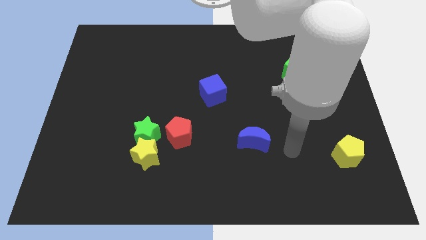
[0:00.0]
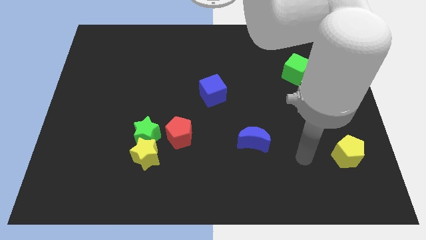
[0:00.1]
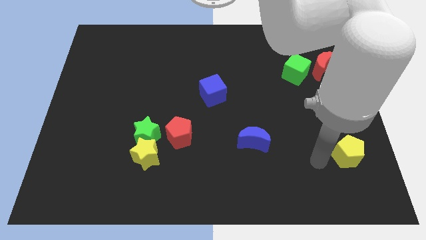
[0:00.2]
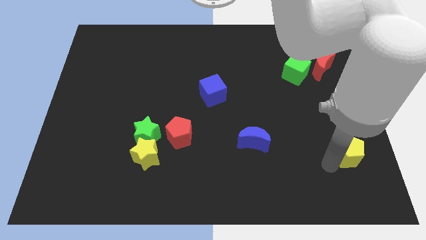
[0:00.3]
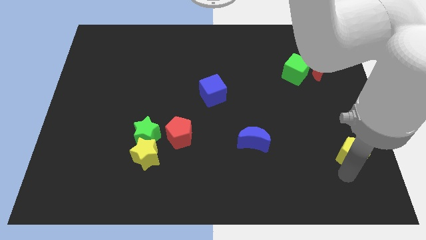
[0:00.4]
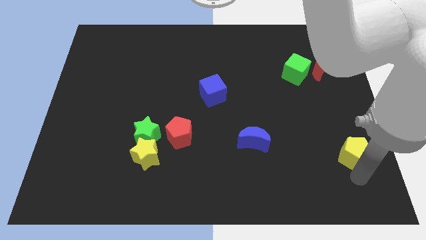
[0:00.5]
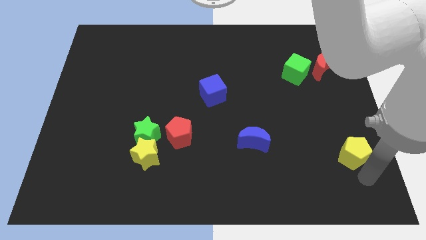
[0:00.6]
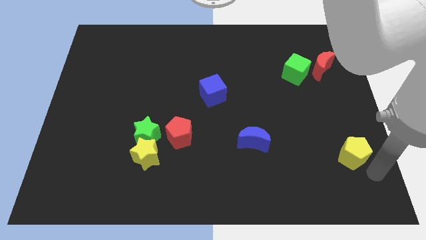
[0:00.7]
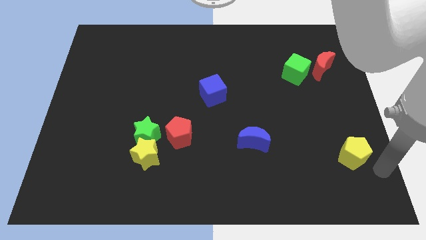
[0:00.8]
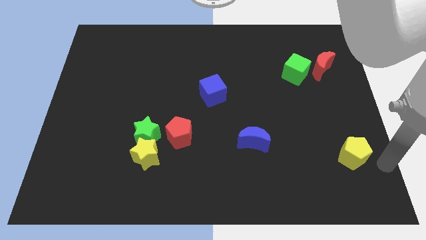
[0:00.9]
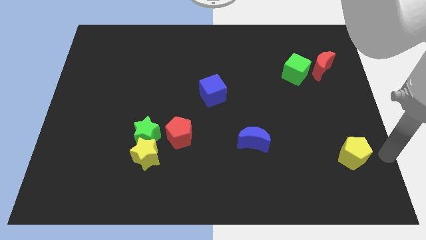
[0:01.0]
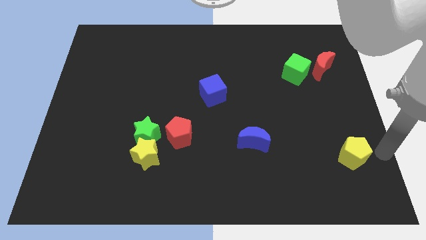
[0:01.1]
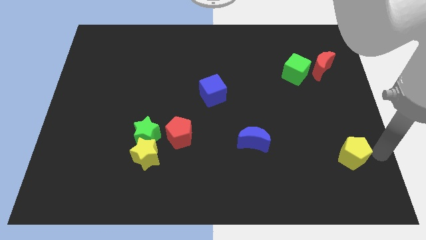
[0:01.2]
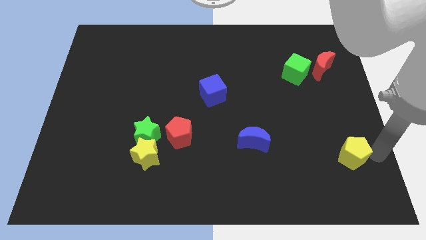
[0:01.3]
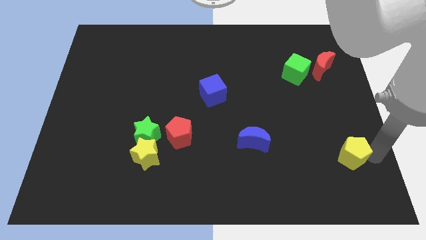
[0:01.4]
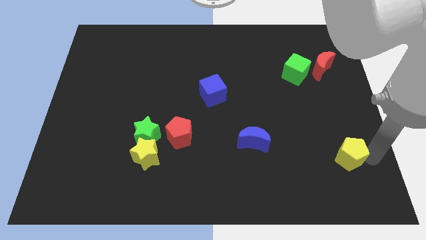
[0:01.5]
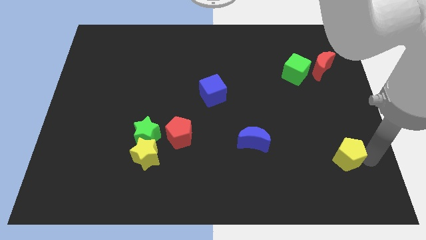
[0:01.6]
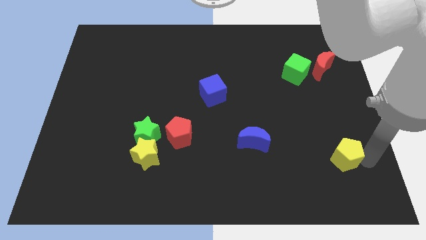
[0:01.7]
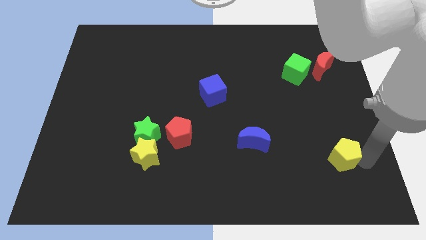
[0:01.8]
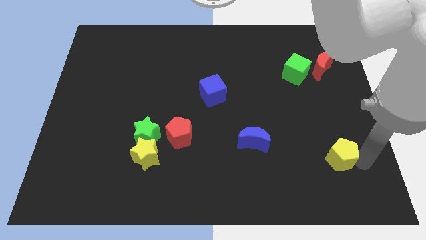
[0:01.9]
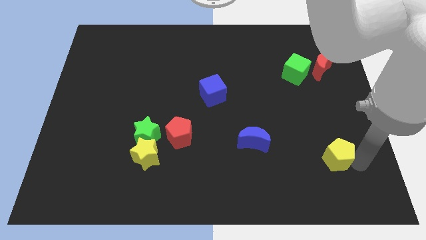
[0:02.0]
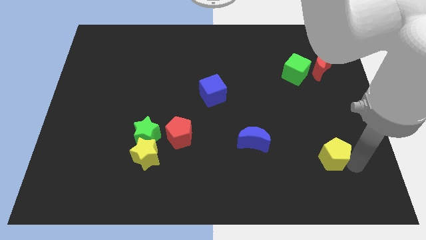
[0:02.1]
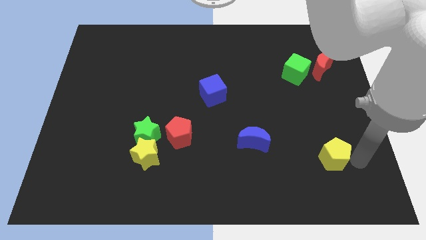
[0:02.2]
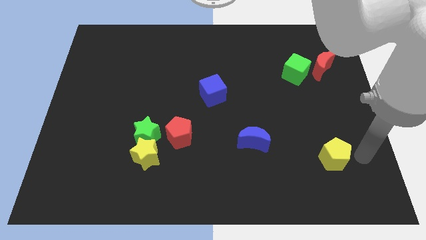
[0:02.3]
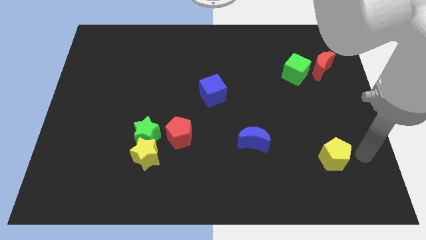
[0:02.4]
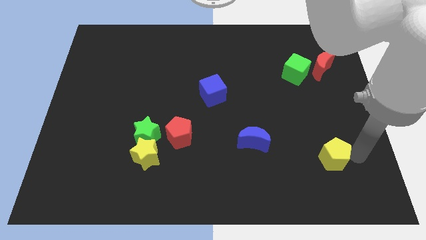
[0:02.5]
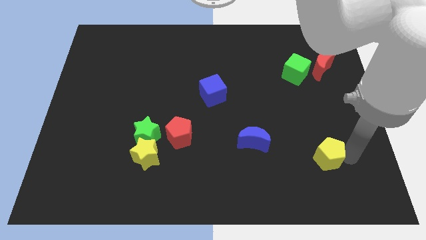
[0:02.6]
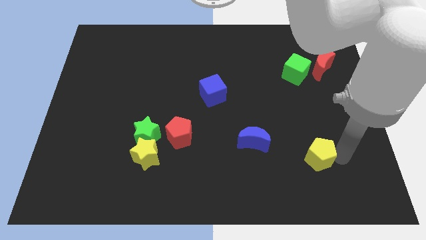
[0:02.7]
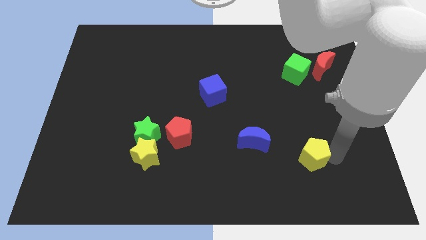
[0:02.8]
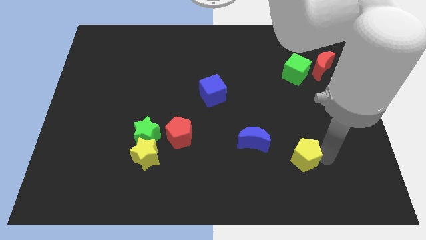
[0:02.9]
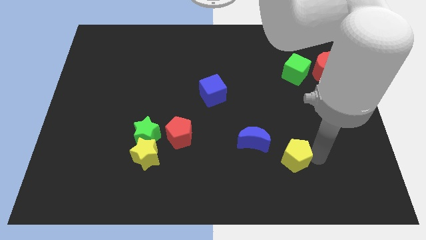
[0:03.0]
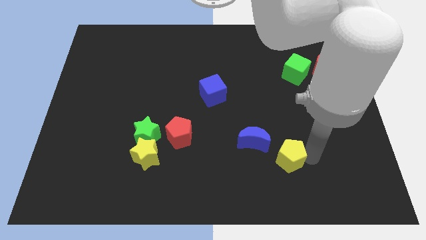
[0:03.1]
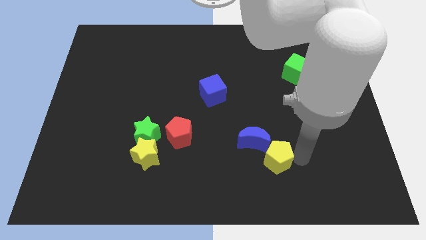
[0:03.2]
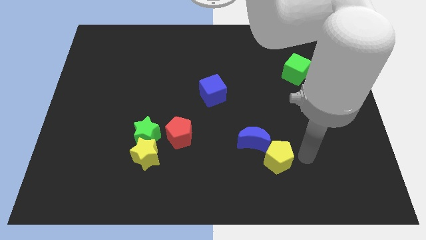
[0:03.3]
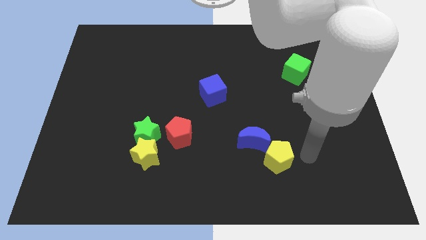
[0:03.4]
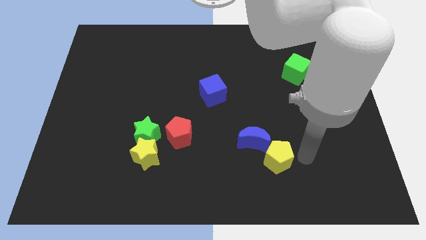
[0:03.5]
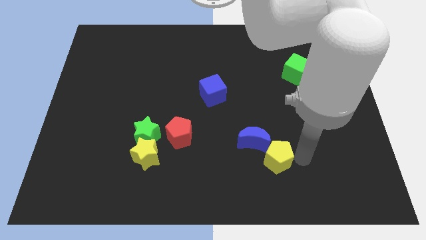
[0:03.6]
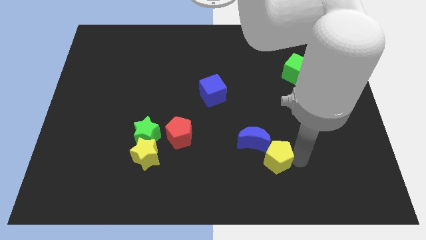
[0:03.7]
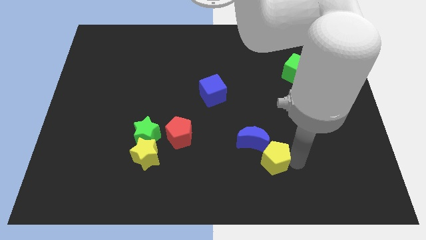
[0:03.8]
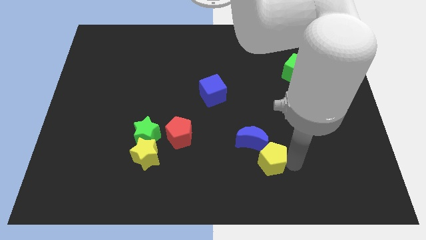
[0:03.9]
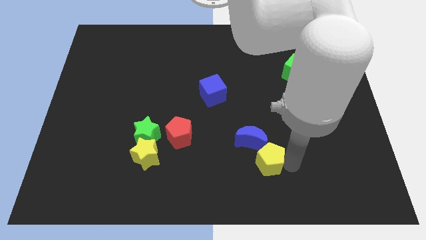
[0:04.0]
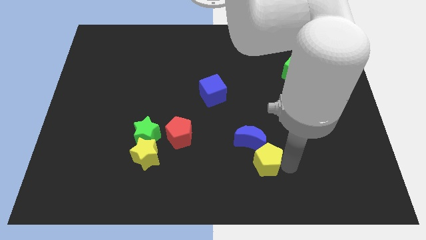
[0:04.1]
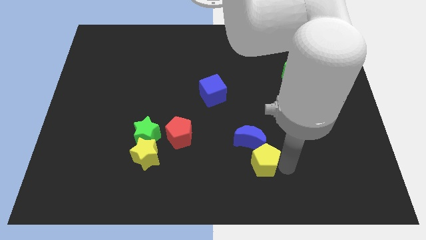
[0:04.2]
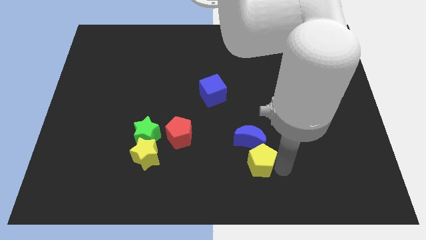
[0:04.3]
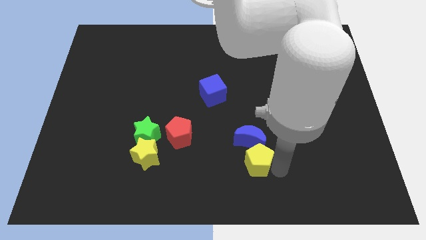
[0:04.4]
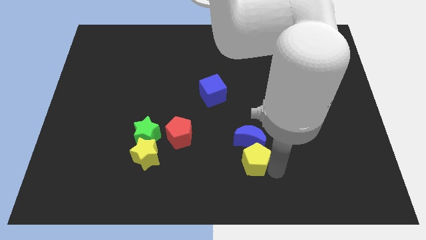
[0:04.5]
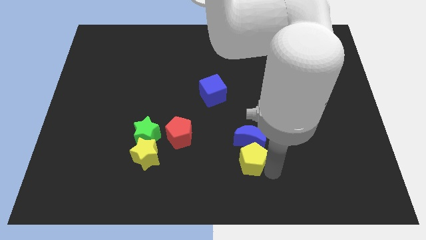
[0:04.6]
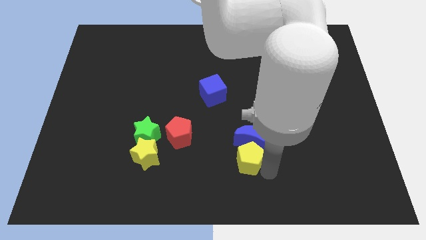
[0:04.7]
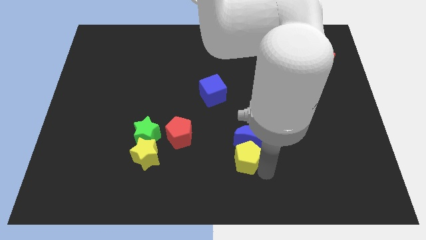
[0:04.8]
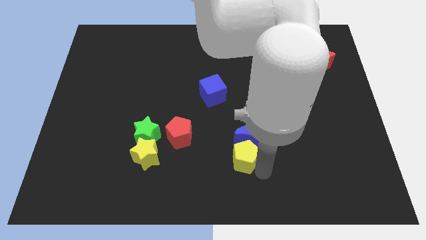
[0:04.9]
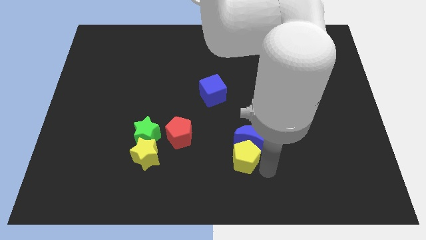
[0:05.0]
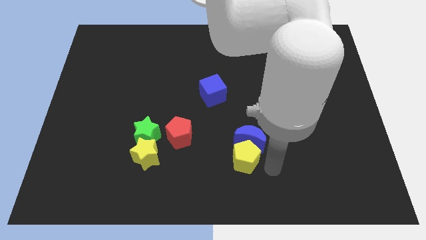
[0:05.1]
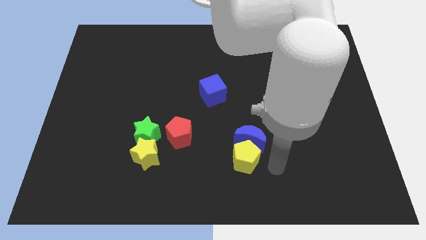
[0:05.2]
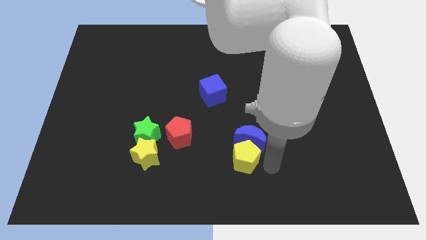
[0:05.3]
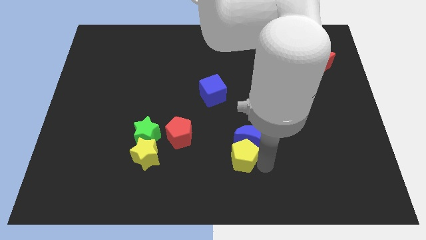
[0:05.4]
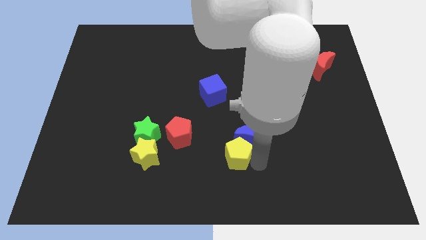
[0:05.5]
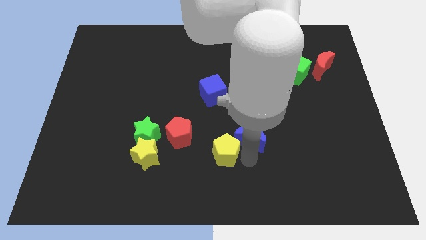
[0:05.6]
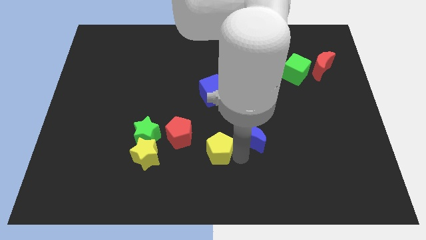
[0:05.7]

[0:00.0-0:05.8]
move the yellow pentagon to the right side of the yellow star

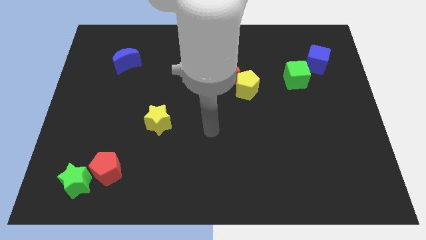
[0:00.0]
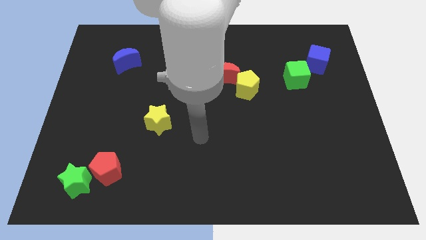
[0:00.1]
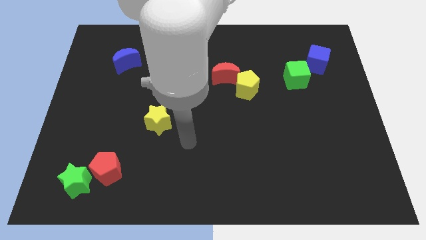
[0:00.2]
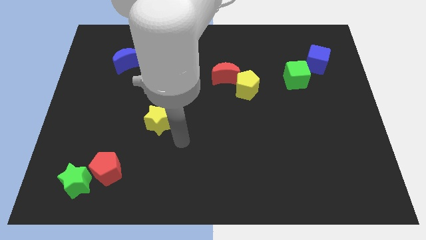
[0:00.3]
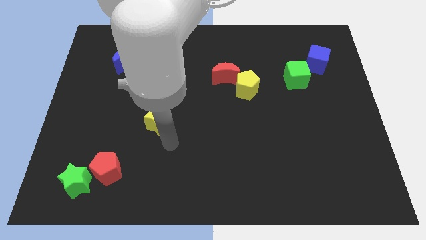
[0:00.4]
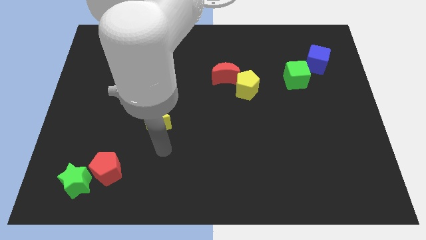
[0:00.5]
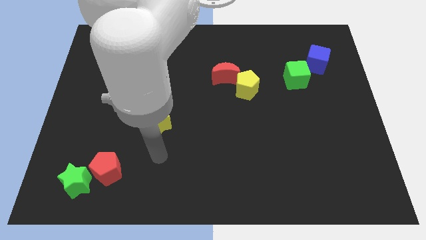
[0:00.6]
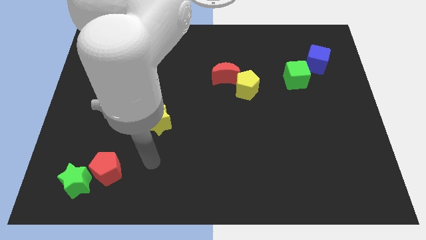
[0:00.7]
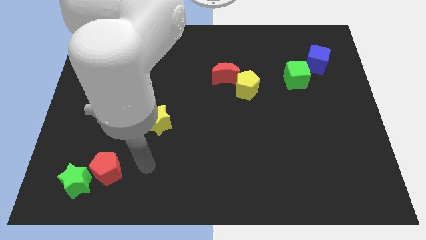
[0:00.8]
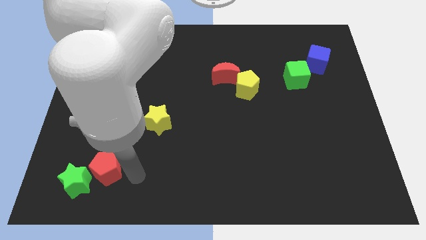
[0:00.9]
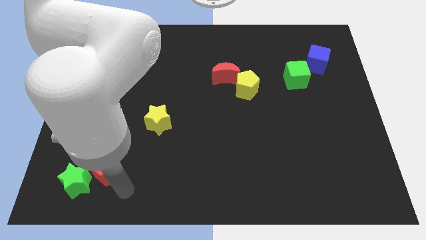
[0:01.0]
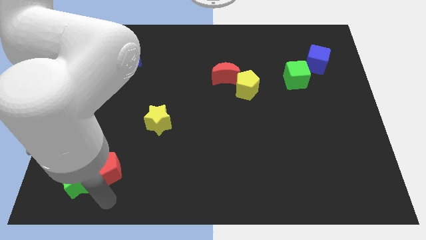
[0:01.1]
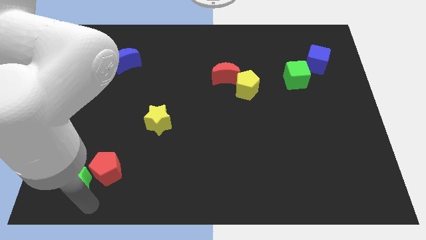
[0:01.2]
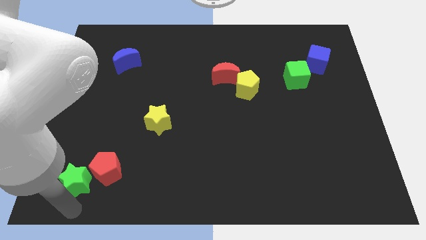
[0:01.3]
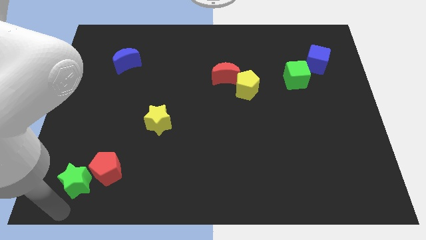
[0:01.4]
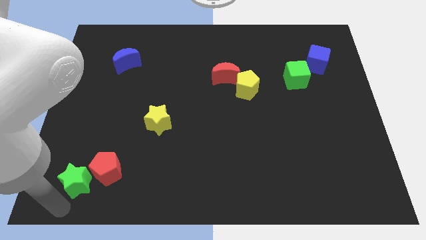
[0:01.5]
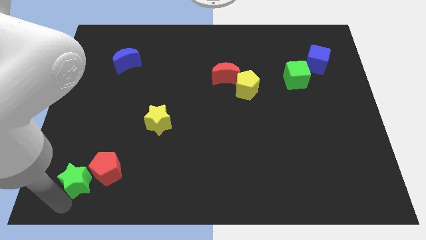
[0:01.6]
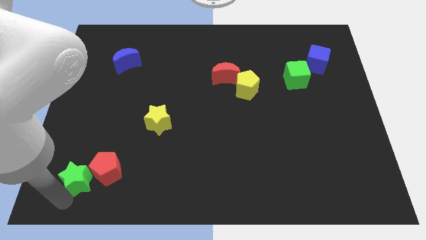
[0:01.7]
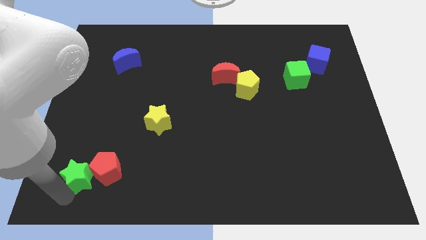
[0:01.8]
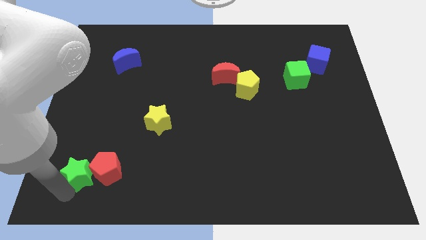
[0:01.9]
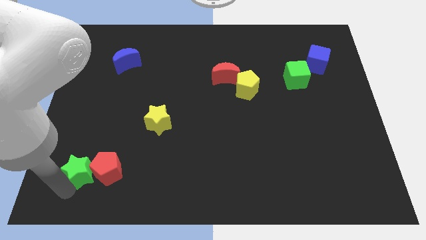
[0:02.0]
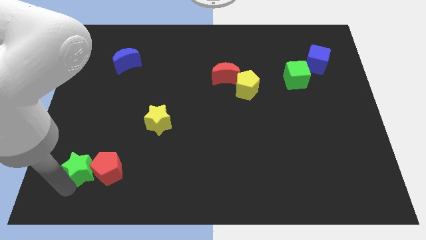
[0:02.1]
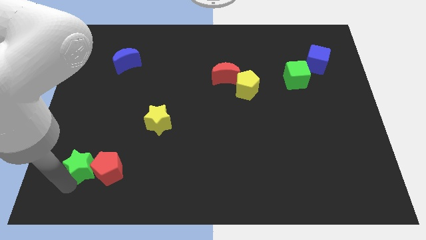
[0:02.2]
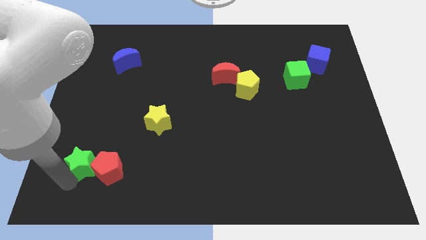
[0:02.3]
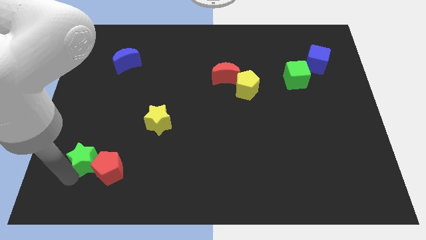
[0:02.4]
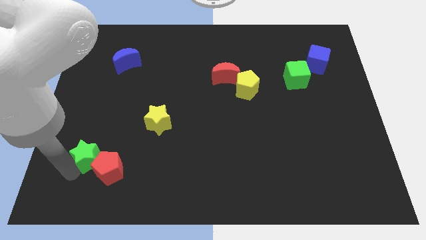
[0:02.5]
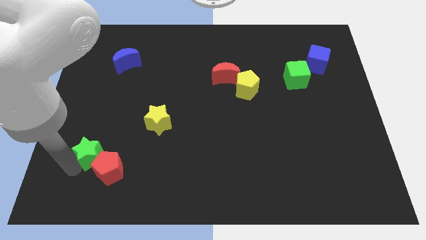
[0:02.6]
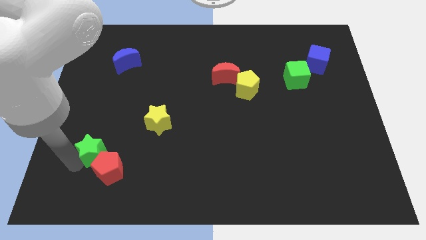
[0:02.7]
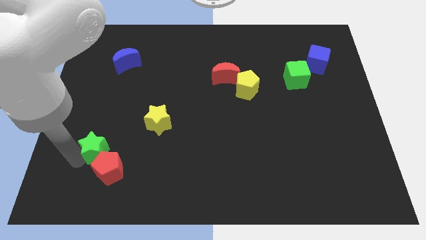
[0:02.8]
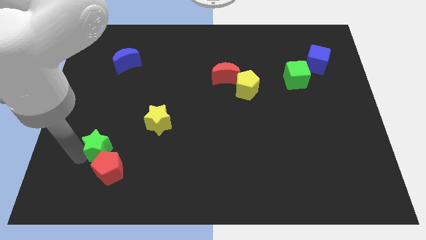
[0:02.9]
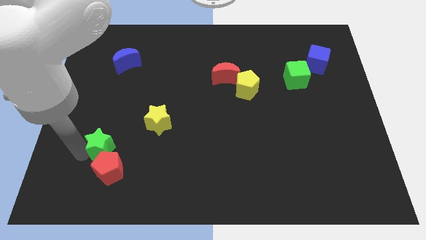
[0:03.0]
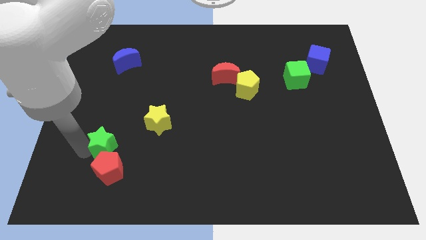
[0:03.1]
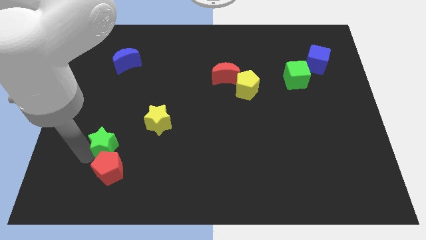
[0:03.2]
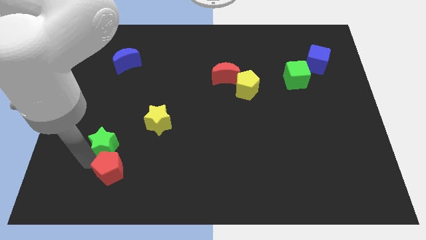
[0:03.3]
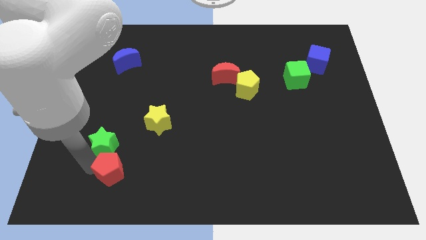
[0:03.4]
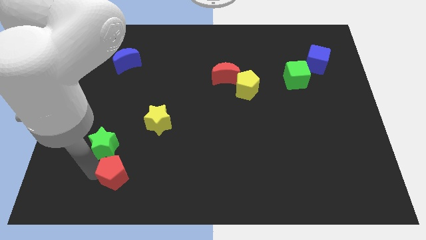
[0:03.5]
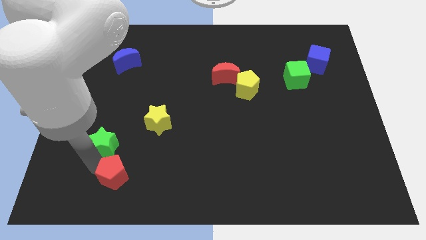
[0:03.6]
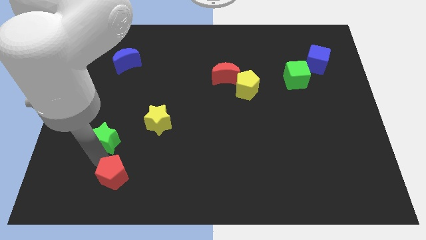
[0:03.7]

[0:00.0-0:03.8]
move the green star to the left side of the yellow star
